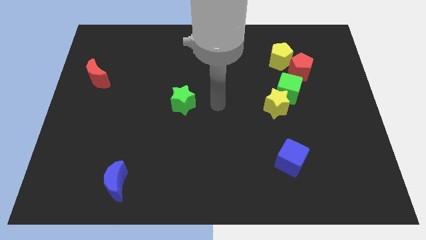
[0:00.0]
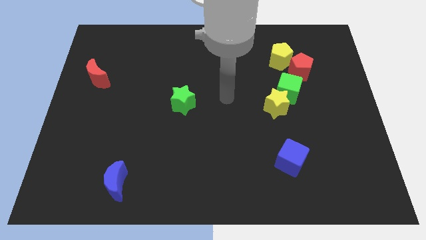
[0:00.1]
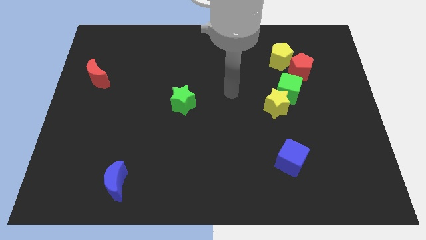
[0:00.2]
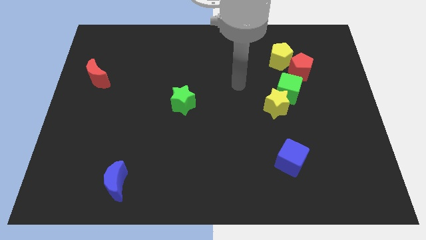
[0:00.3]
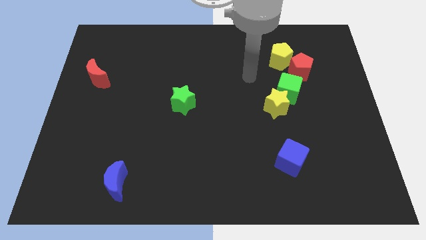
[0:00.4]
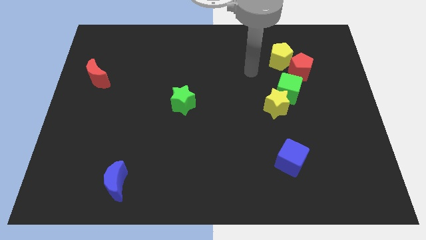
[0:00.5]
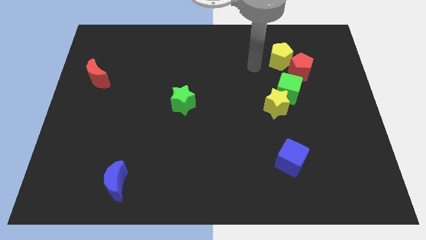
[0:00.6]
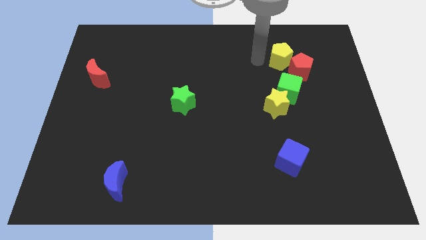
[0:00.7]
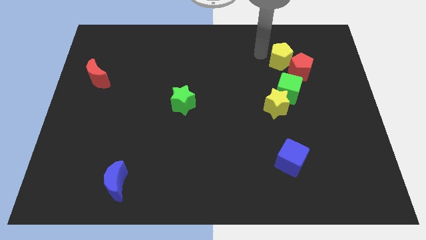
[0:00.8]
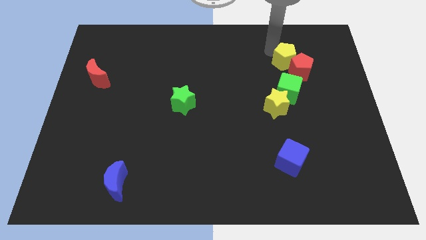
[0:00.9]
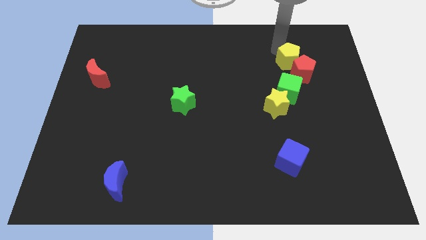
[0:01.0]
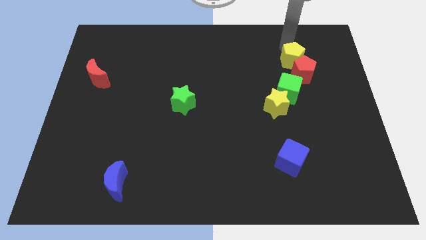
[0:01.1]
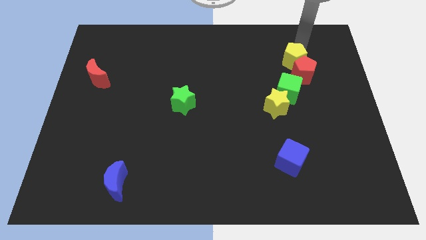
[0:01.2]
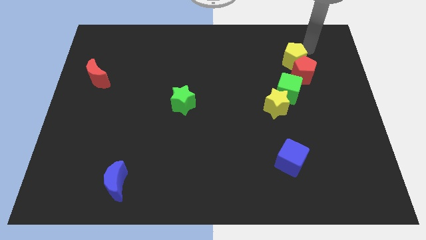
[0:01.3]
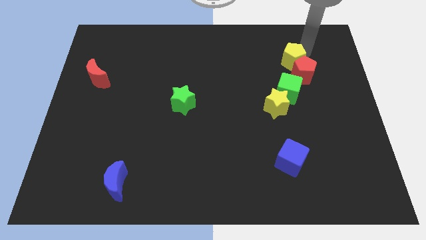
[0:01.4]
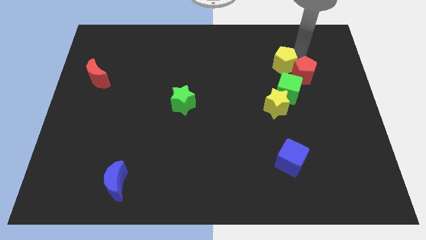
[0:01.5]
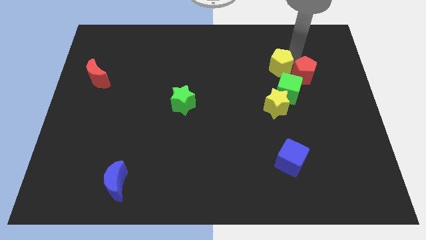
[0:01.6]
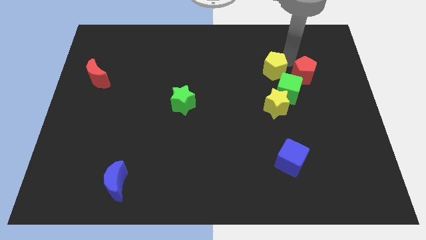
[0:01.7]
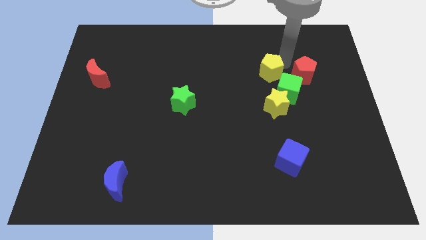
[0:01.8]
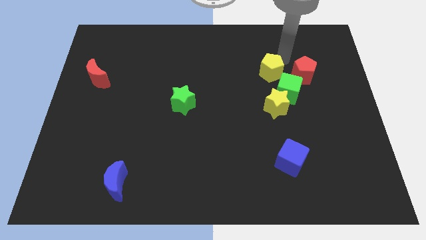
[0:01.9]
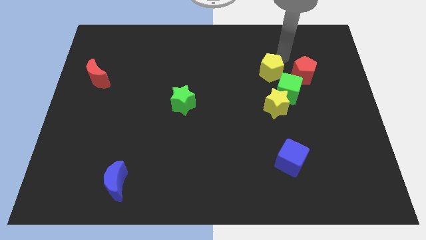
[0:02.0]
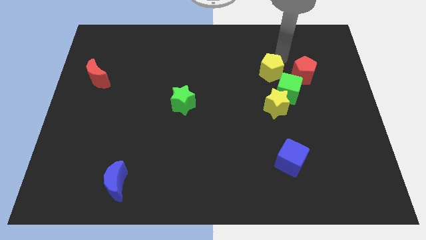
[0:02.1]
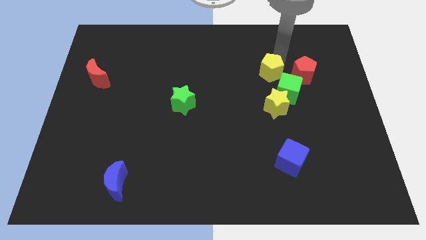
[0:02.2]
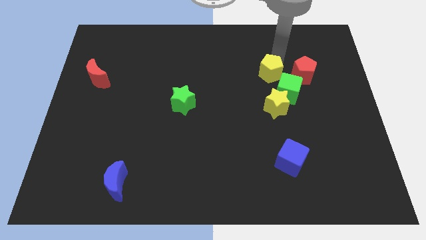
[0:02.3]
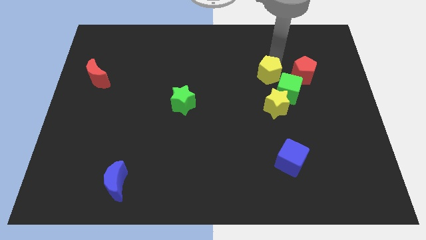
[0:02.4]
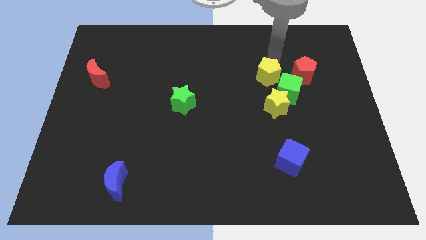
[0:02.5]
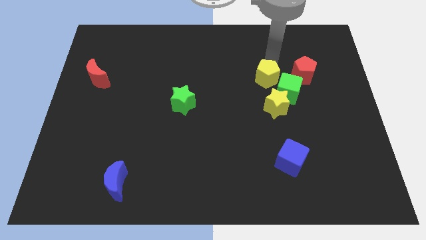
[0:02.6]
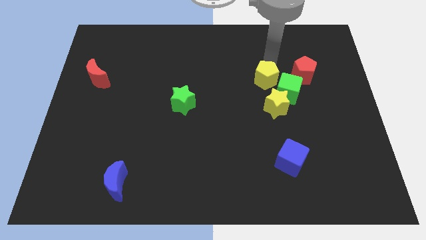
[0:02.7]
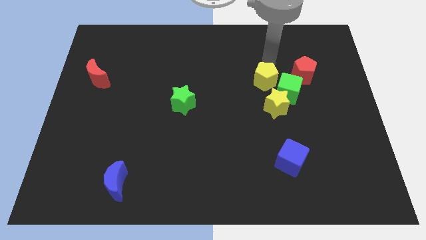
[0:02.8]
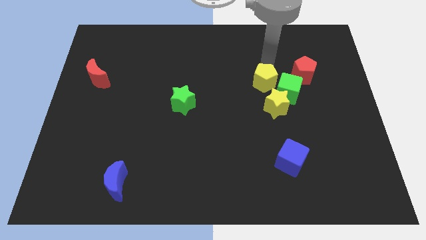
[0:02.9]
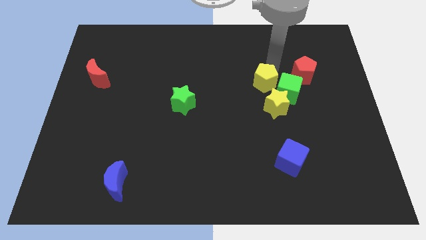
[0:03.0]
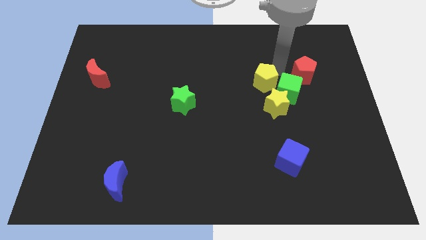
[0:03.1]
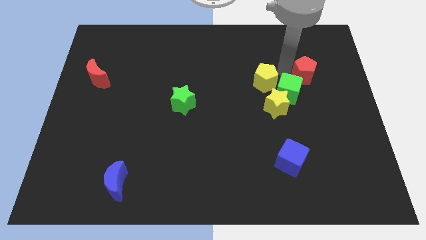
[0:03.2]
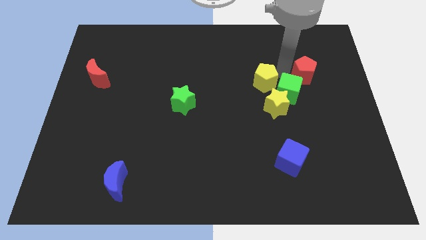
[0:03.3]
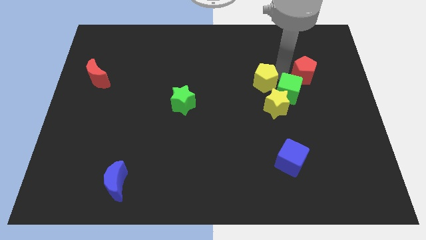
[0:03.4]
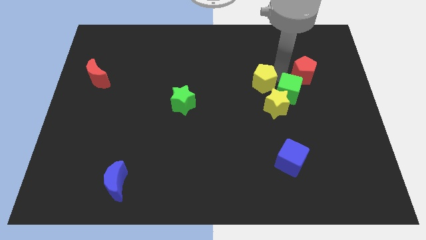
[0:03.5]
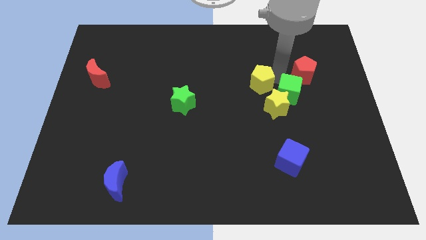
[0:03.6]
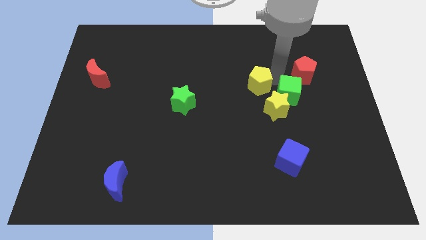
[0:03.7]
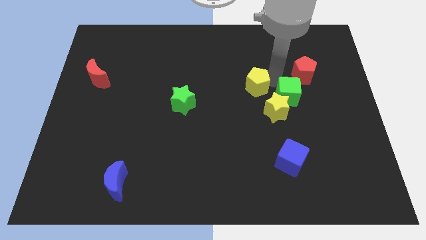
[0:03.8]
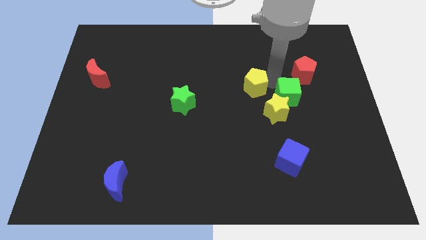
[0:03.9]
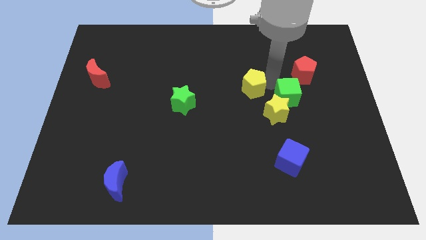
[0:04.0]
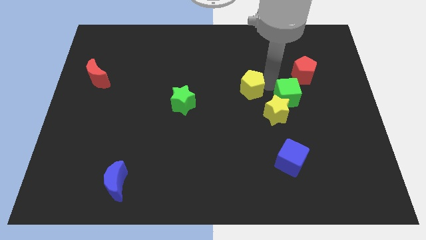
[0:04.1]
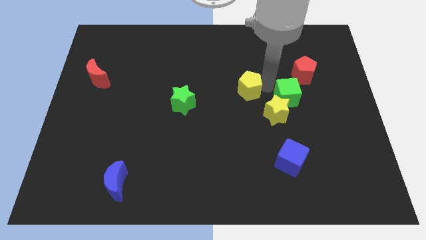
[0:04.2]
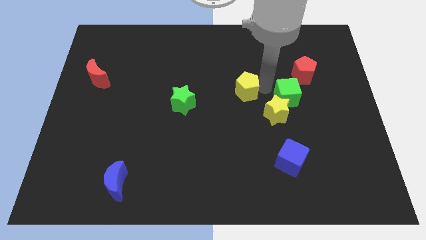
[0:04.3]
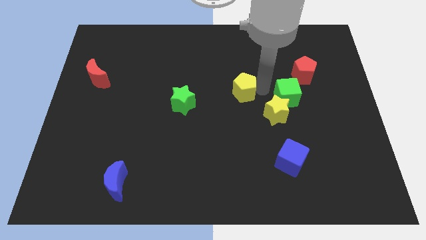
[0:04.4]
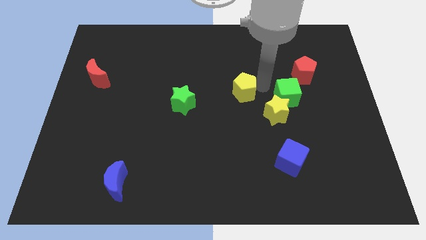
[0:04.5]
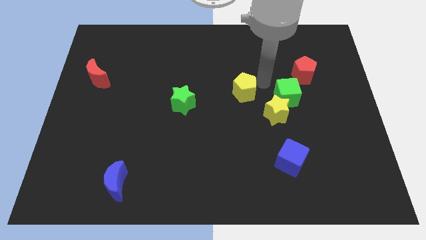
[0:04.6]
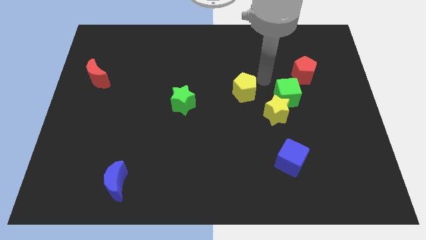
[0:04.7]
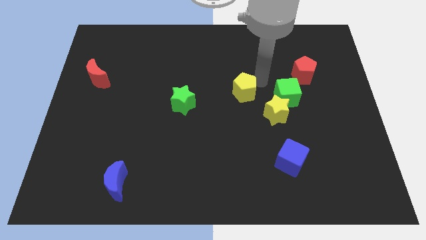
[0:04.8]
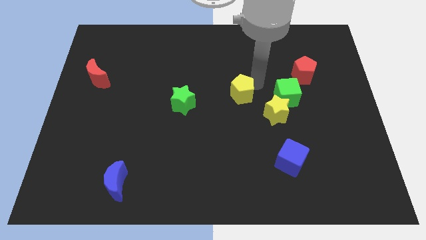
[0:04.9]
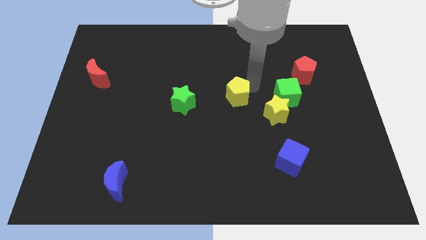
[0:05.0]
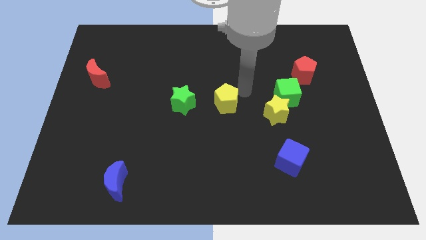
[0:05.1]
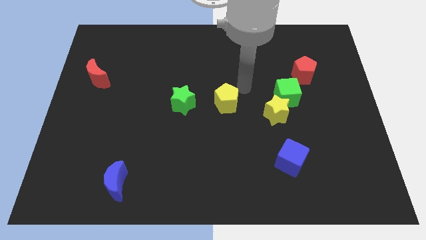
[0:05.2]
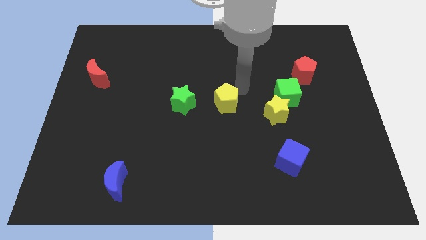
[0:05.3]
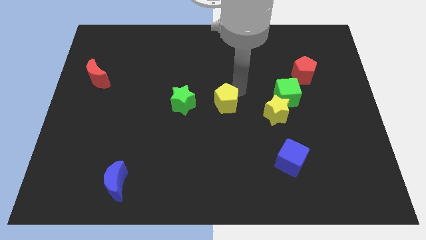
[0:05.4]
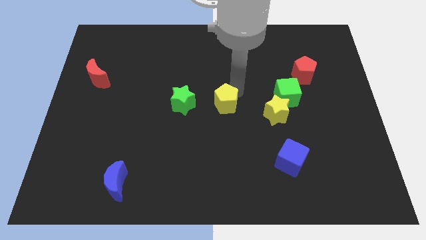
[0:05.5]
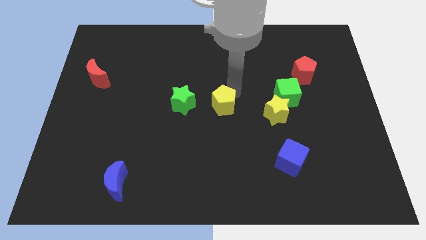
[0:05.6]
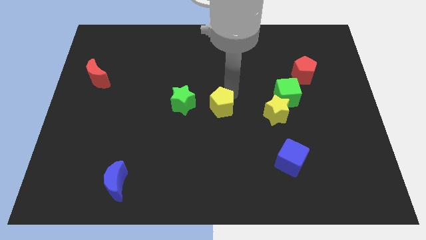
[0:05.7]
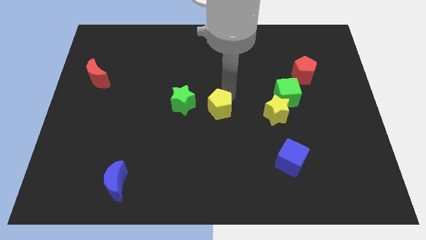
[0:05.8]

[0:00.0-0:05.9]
move the yellow pentagon diagonally down and to the right of the green star
